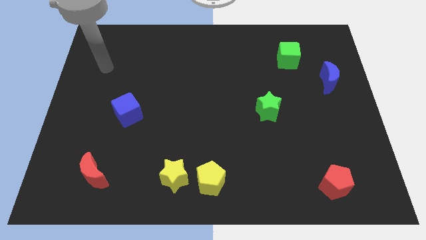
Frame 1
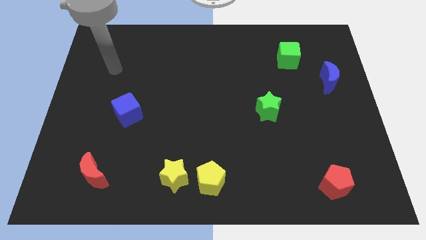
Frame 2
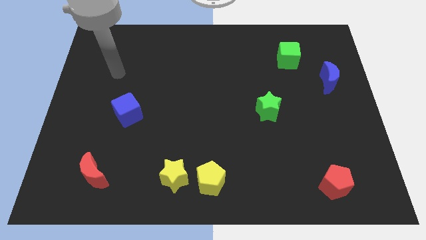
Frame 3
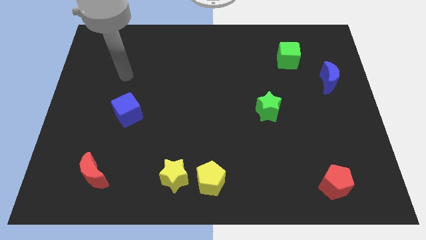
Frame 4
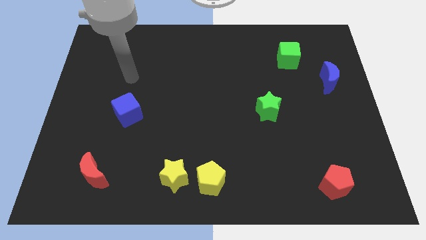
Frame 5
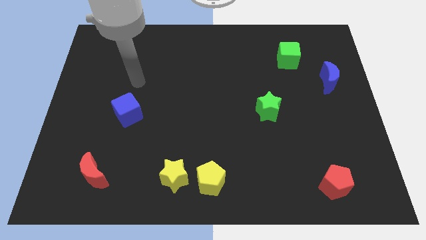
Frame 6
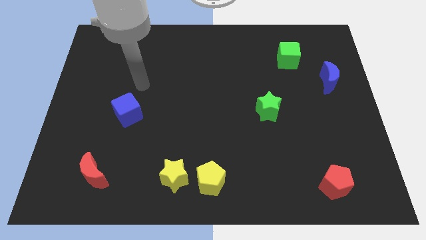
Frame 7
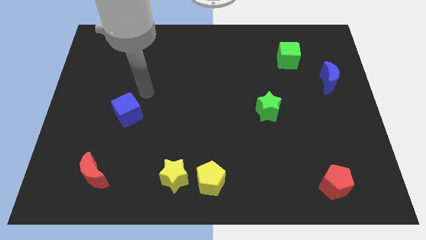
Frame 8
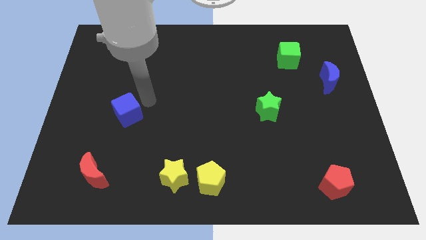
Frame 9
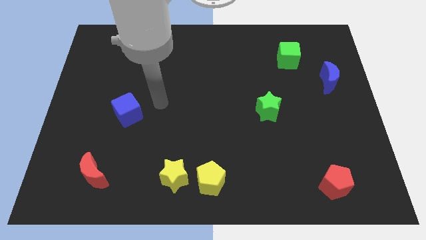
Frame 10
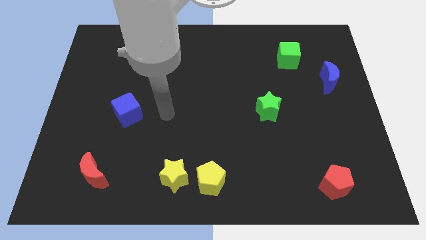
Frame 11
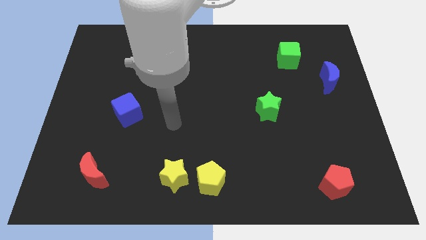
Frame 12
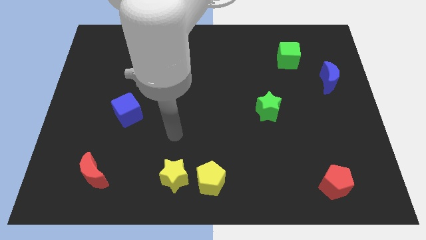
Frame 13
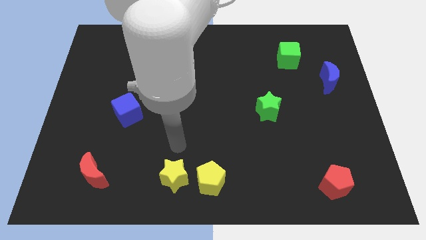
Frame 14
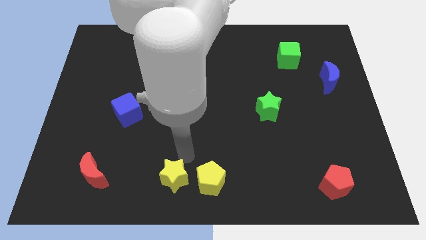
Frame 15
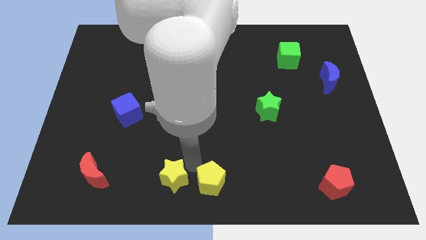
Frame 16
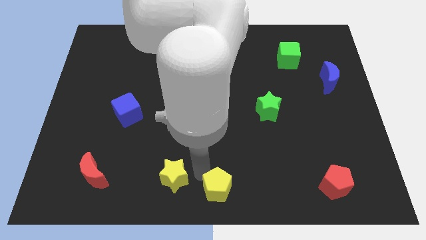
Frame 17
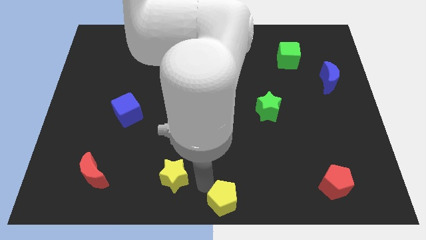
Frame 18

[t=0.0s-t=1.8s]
separate the yellow star from the yellow pentagon

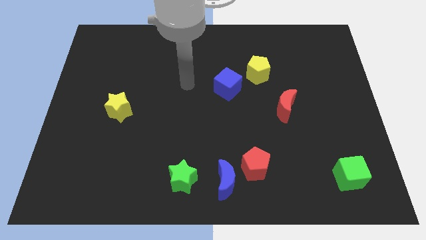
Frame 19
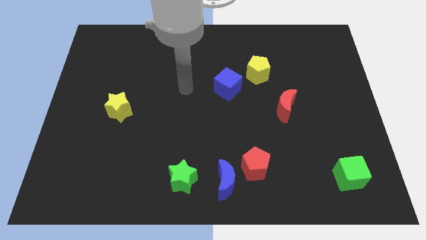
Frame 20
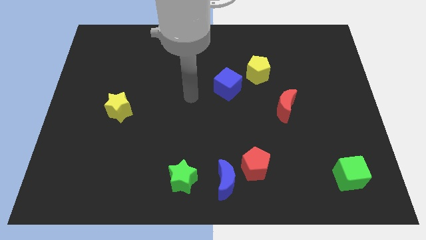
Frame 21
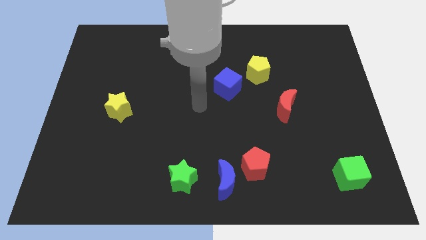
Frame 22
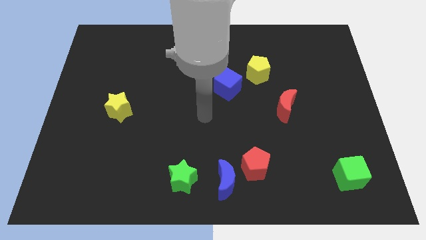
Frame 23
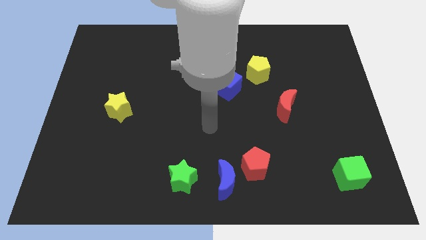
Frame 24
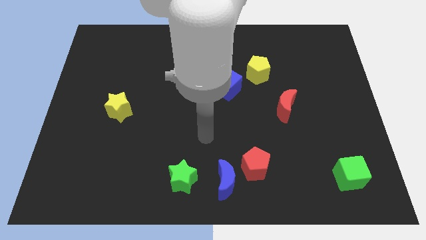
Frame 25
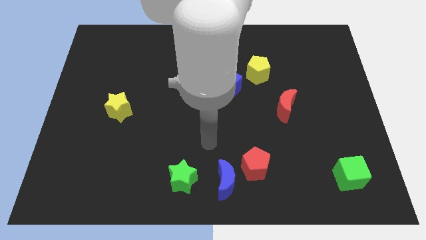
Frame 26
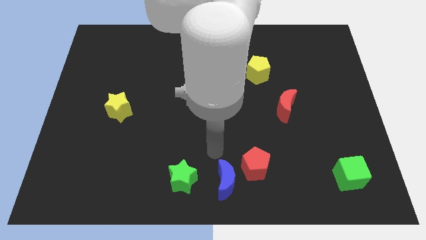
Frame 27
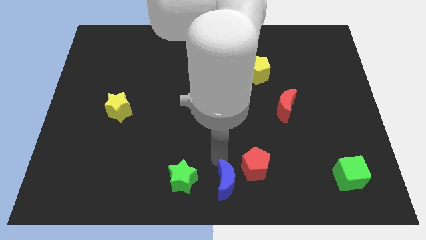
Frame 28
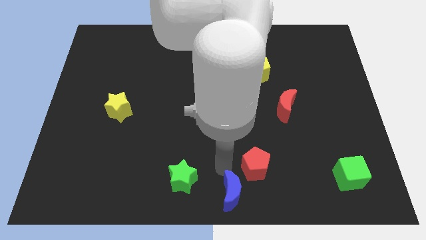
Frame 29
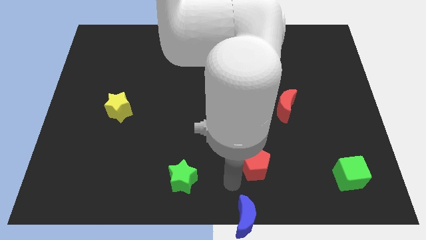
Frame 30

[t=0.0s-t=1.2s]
separate the red pentagon from the blue moon

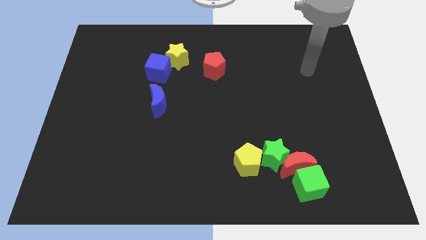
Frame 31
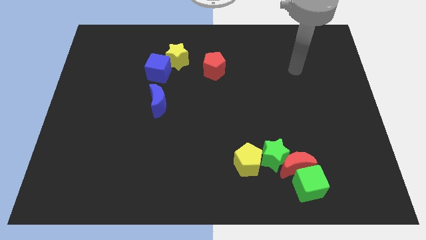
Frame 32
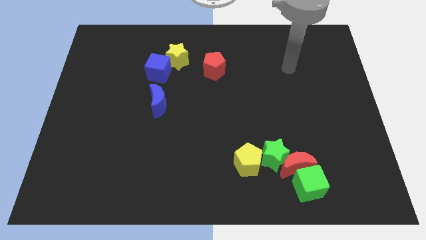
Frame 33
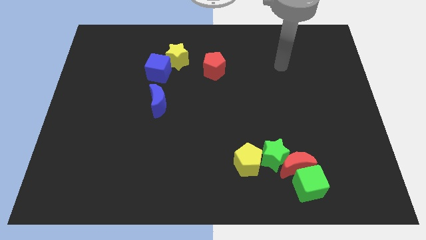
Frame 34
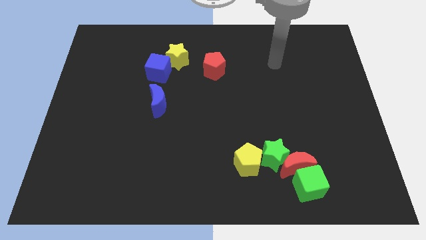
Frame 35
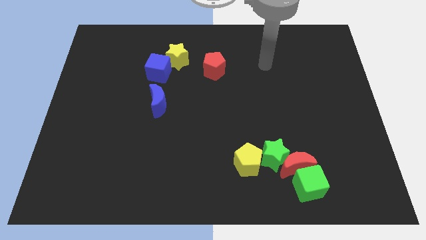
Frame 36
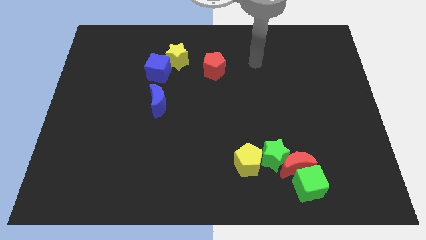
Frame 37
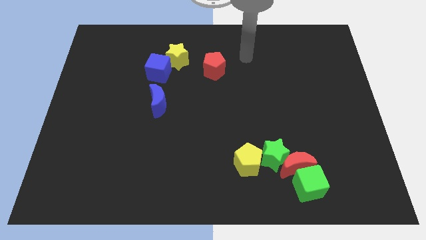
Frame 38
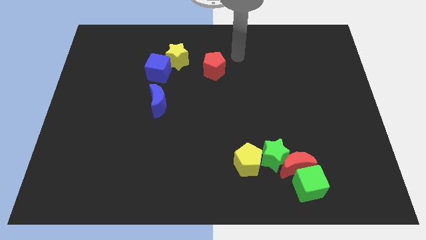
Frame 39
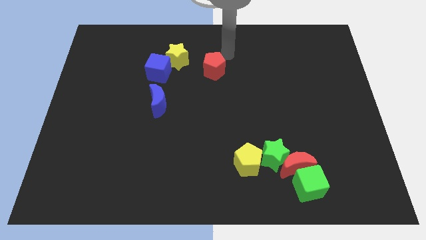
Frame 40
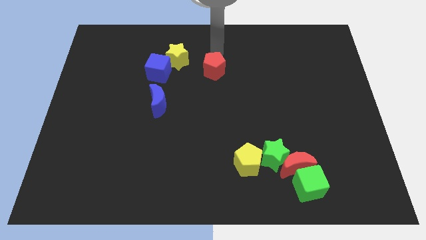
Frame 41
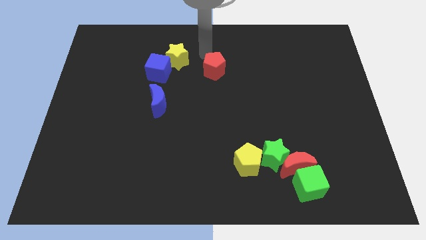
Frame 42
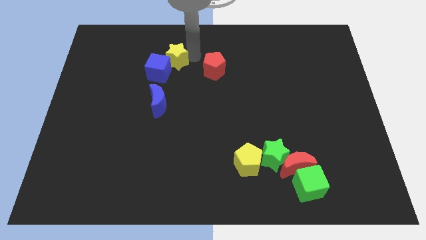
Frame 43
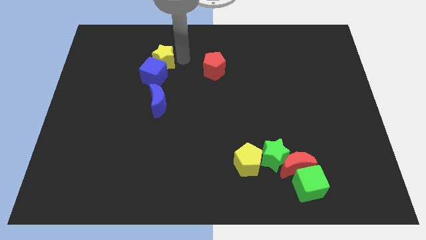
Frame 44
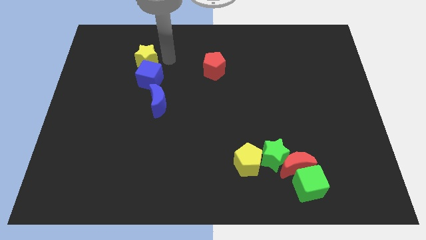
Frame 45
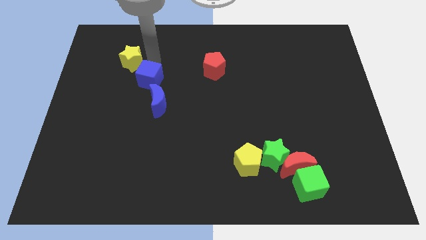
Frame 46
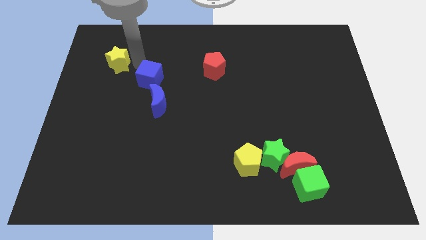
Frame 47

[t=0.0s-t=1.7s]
move the blue cube away from the yellow star

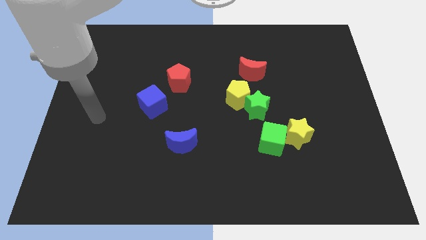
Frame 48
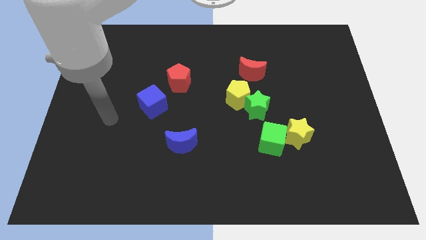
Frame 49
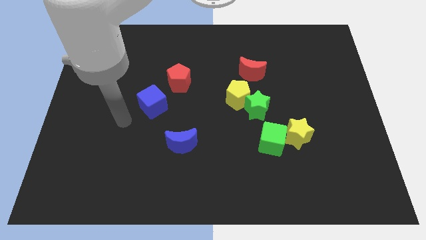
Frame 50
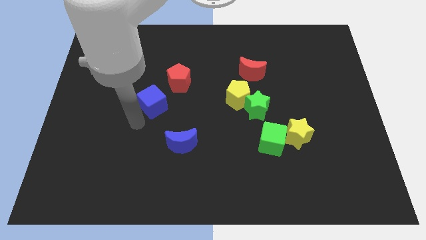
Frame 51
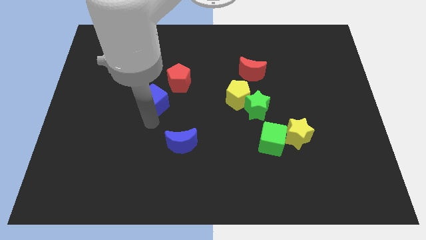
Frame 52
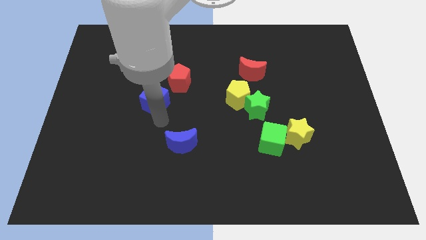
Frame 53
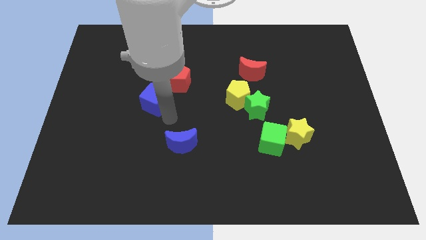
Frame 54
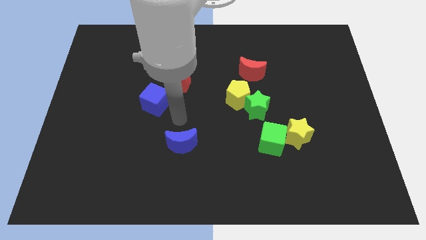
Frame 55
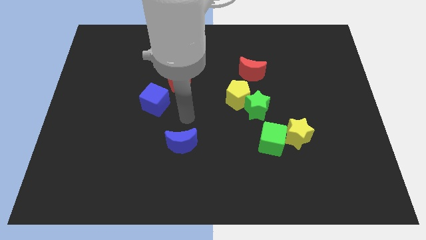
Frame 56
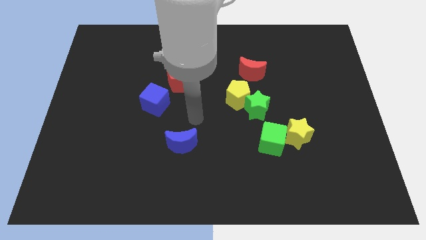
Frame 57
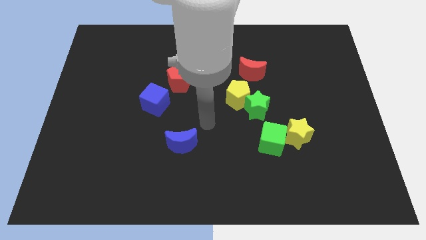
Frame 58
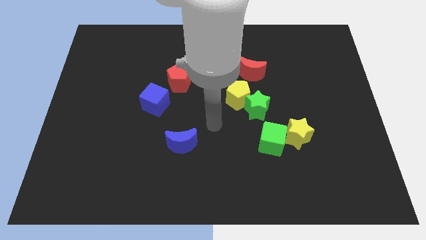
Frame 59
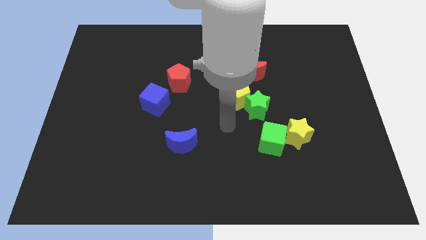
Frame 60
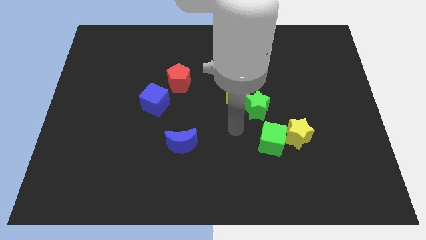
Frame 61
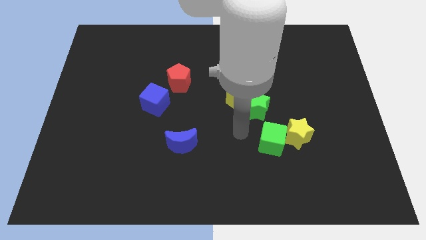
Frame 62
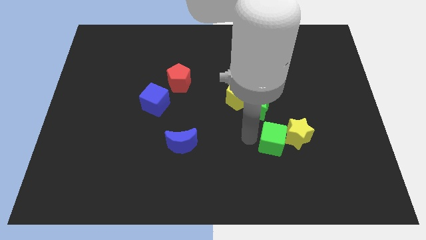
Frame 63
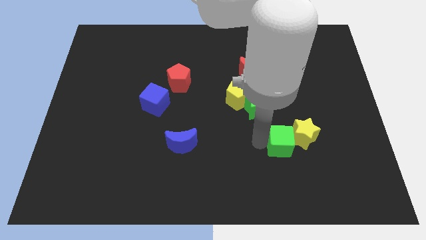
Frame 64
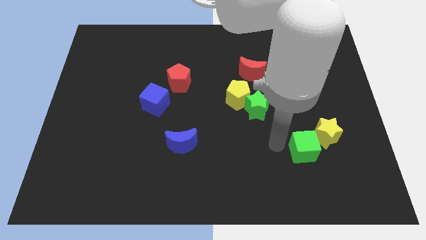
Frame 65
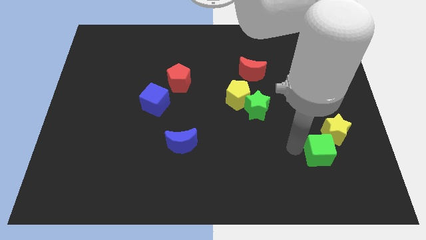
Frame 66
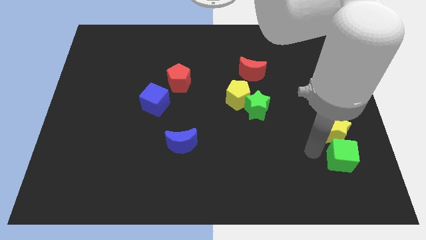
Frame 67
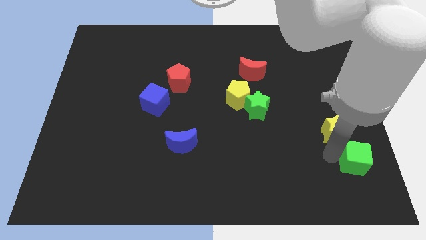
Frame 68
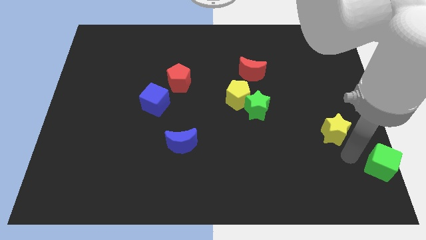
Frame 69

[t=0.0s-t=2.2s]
separate the yellow star from the green cube

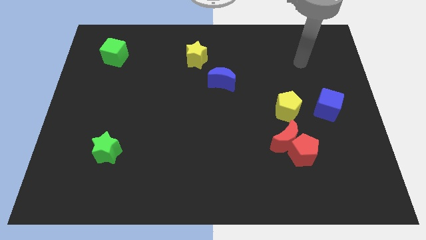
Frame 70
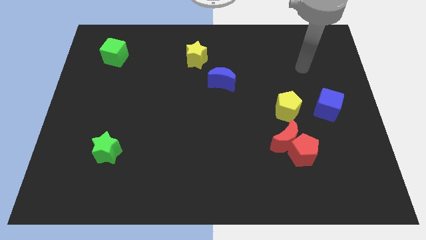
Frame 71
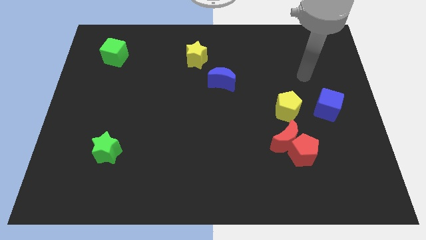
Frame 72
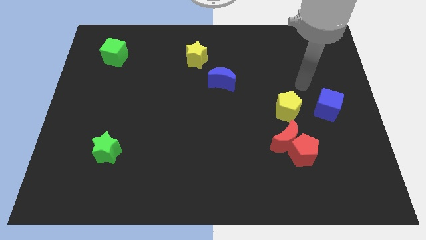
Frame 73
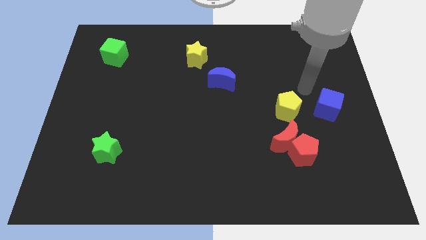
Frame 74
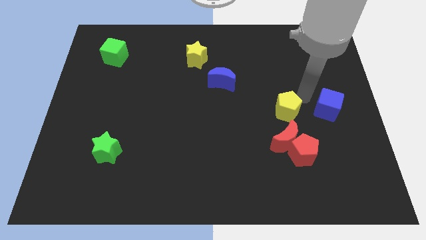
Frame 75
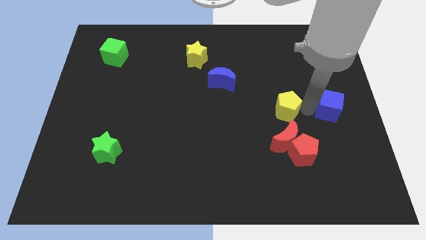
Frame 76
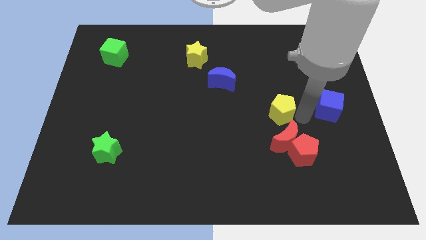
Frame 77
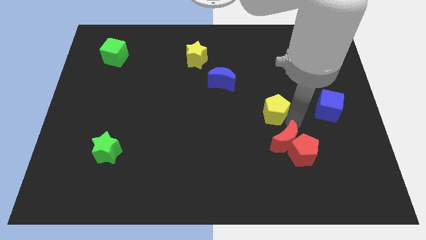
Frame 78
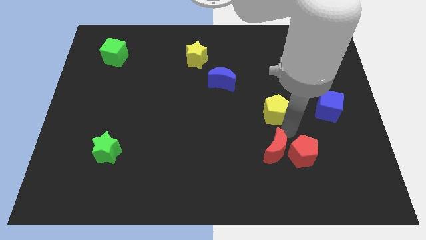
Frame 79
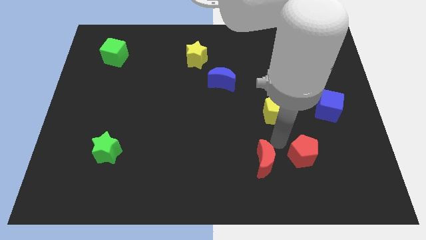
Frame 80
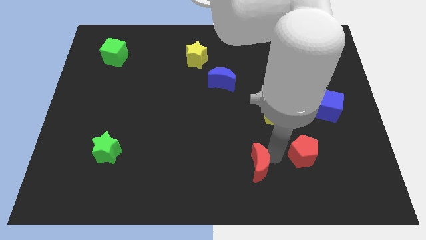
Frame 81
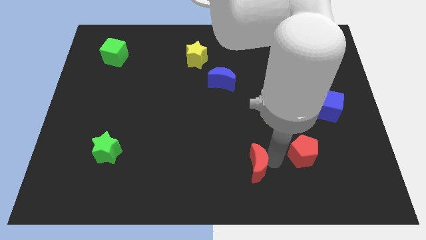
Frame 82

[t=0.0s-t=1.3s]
pull the red pentagon apart from the red moon

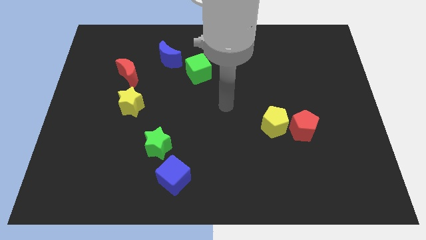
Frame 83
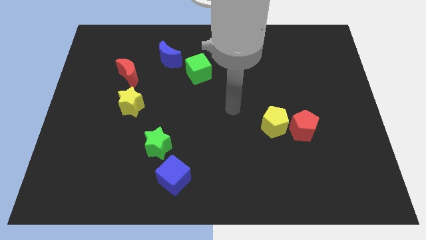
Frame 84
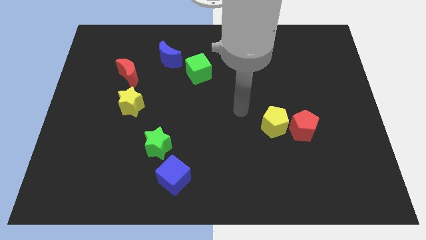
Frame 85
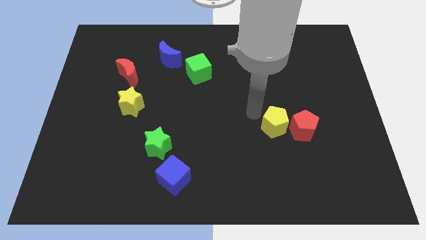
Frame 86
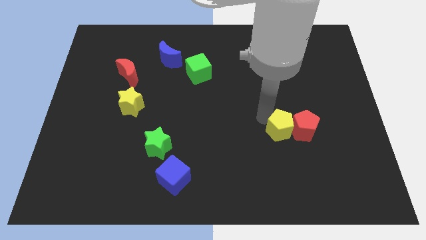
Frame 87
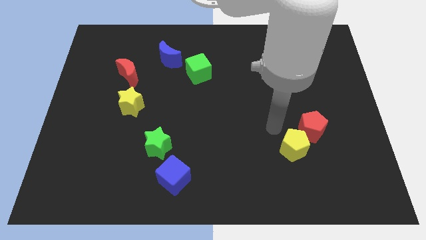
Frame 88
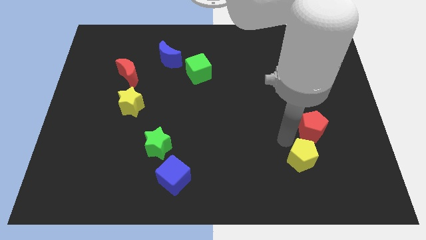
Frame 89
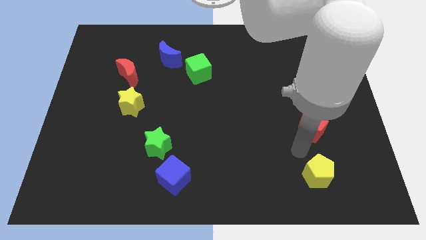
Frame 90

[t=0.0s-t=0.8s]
separate the red pentagon from the yellow pentagon

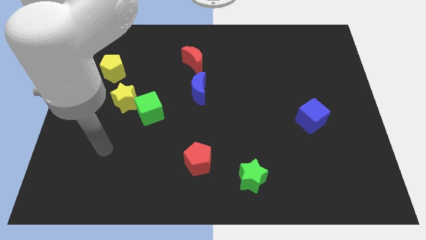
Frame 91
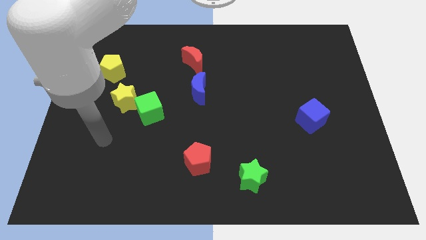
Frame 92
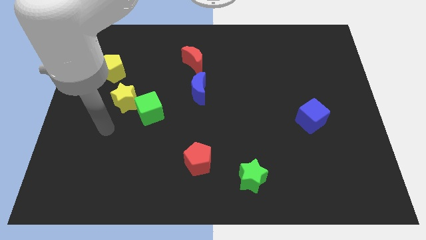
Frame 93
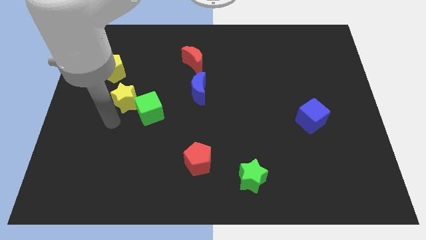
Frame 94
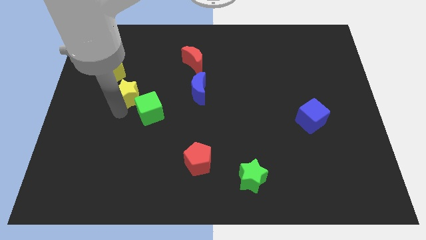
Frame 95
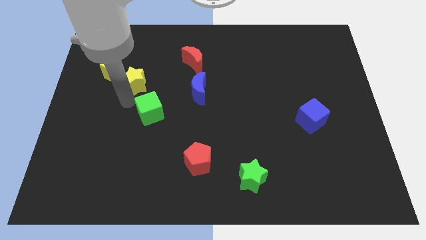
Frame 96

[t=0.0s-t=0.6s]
move the green cube away from the yellow star
